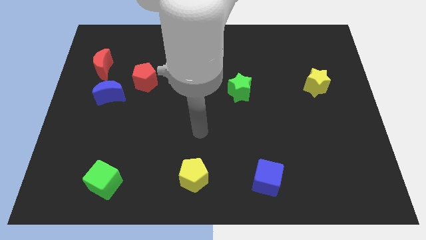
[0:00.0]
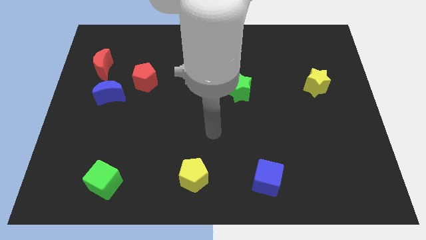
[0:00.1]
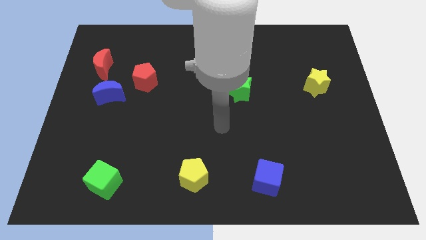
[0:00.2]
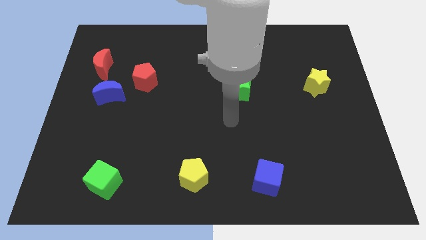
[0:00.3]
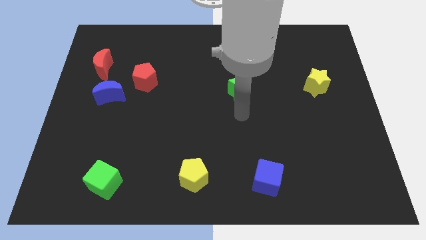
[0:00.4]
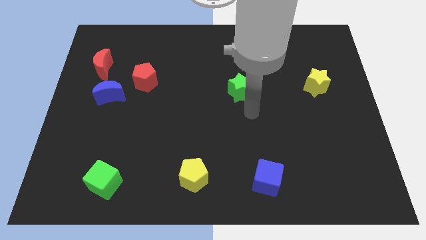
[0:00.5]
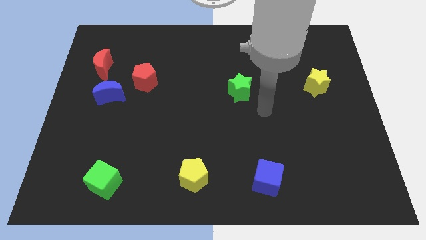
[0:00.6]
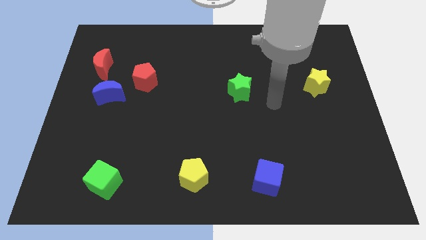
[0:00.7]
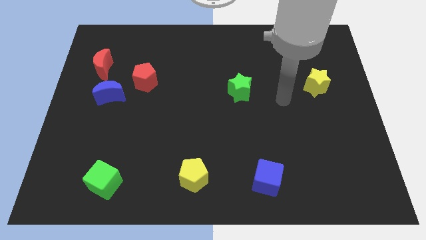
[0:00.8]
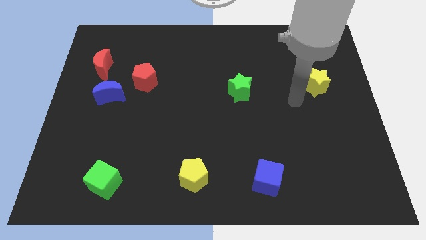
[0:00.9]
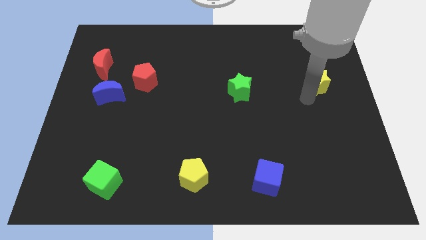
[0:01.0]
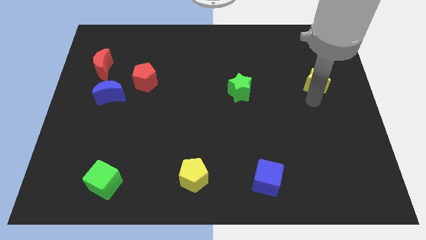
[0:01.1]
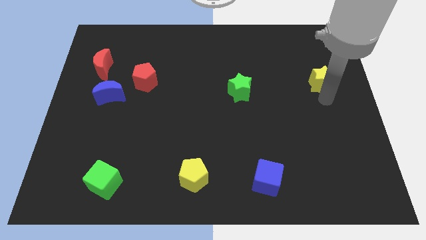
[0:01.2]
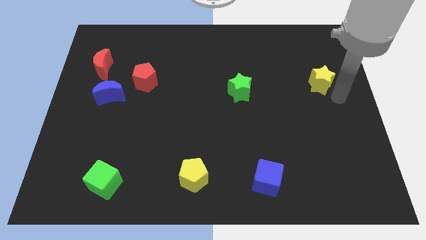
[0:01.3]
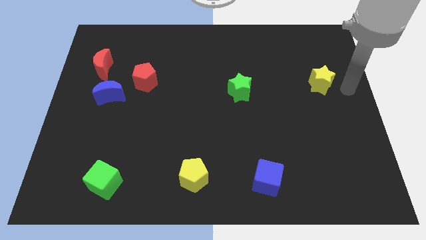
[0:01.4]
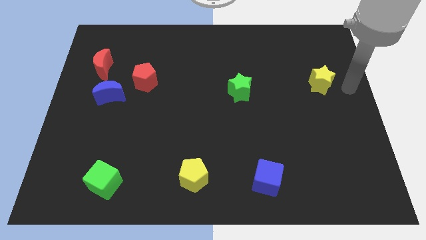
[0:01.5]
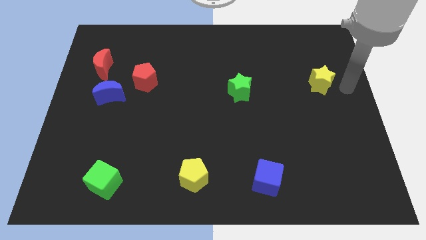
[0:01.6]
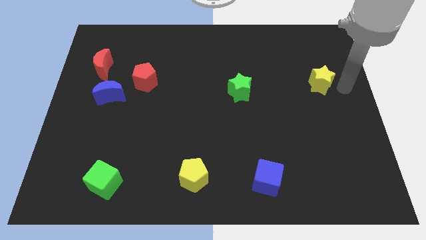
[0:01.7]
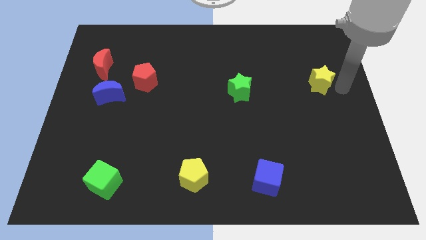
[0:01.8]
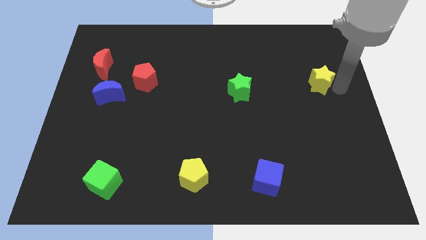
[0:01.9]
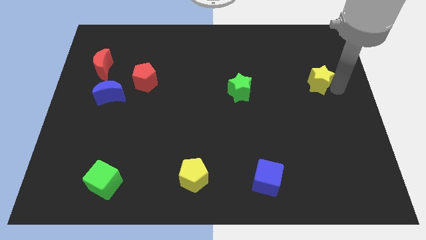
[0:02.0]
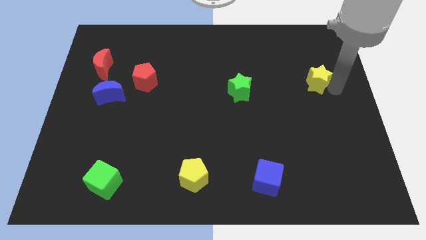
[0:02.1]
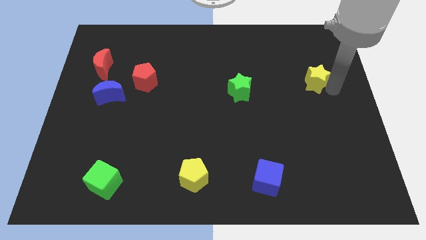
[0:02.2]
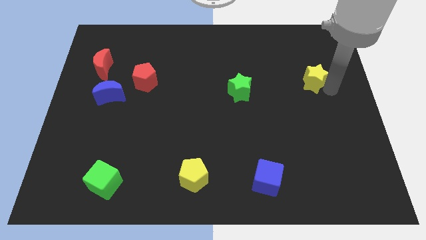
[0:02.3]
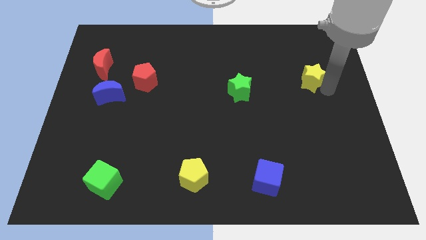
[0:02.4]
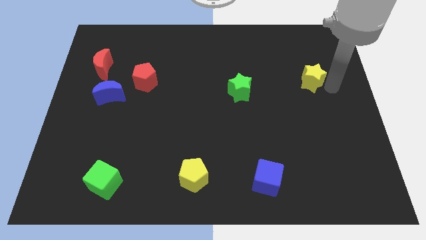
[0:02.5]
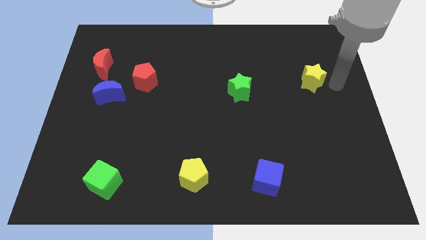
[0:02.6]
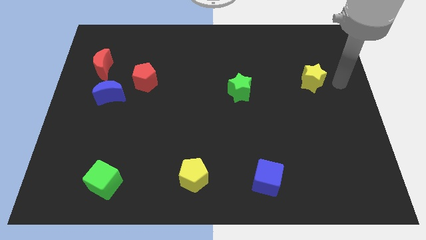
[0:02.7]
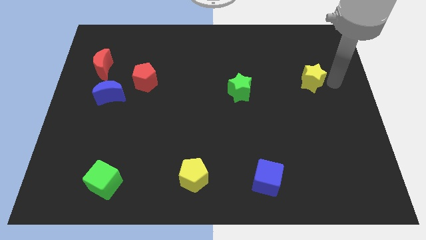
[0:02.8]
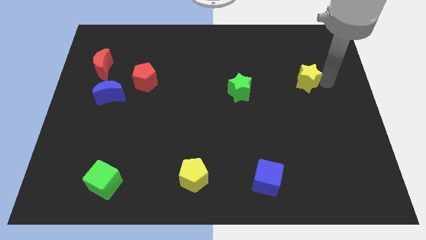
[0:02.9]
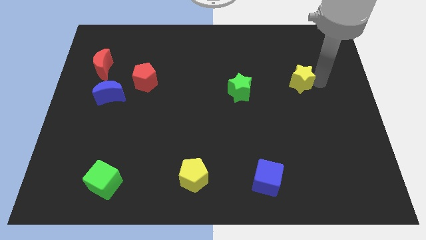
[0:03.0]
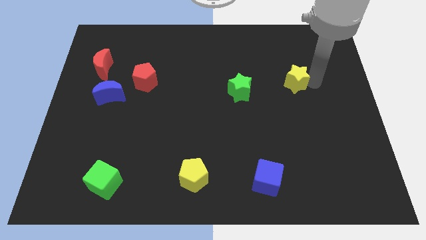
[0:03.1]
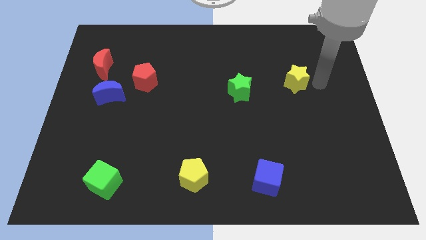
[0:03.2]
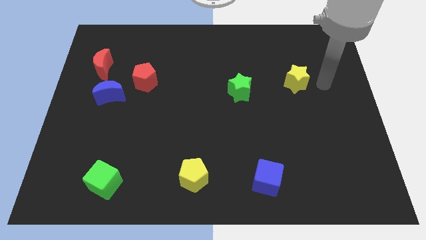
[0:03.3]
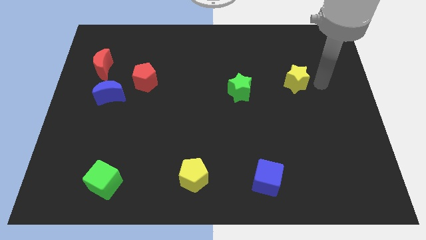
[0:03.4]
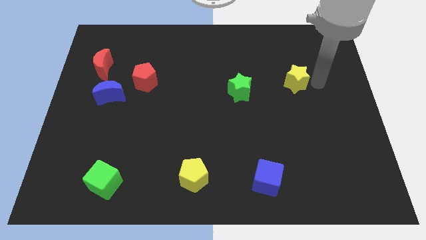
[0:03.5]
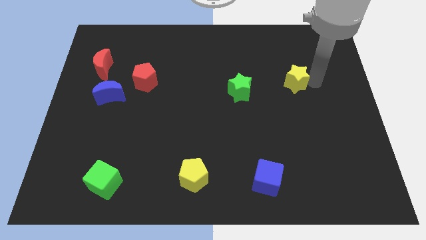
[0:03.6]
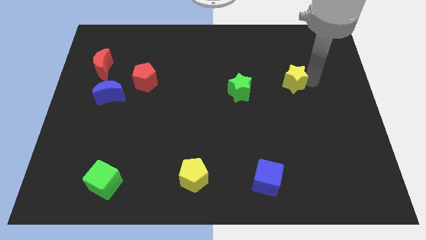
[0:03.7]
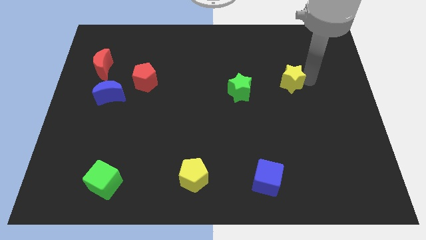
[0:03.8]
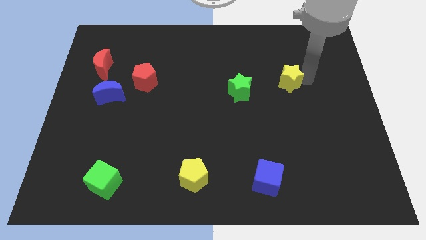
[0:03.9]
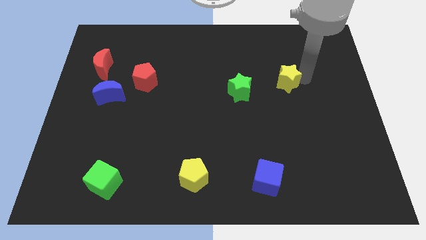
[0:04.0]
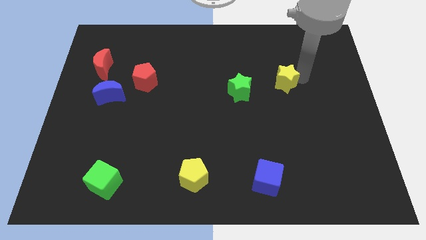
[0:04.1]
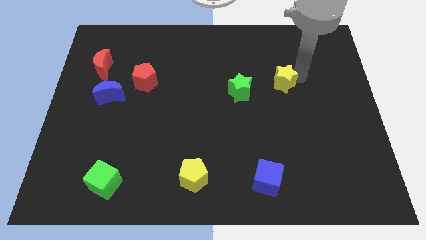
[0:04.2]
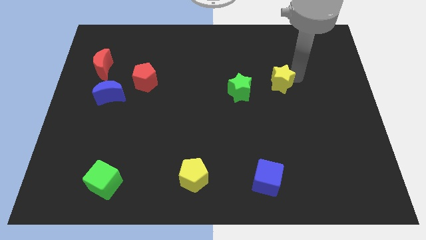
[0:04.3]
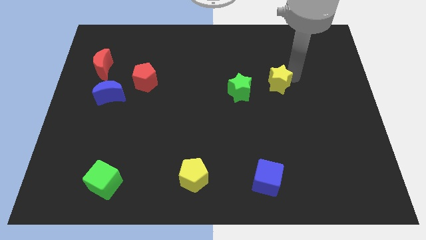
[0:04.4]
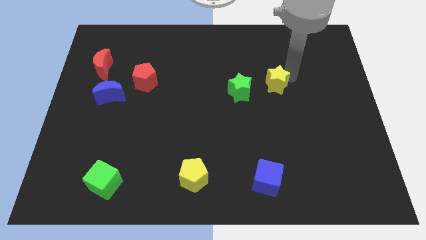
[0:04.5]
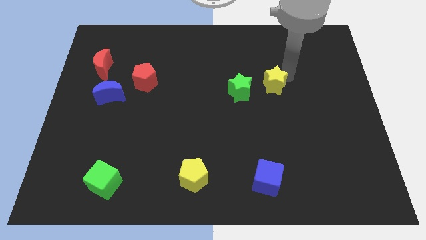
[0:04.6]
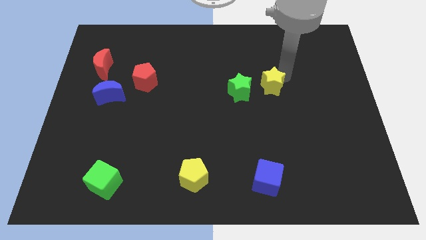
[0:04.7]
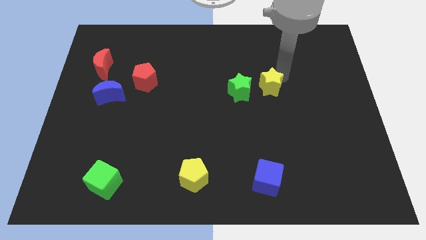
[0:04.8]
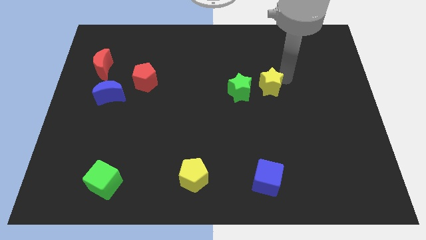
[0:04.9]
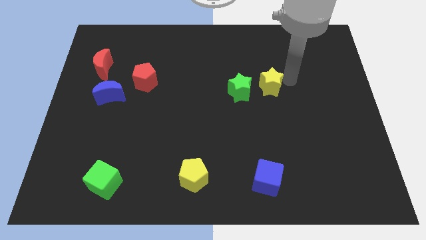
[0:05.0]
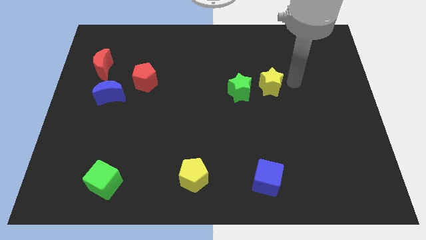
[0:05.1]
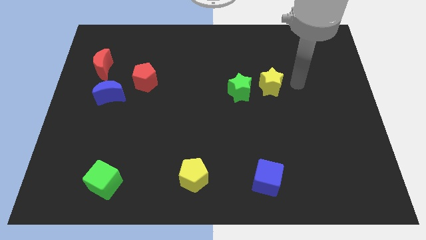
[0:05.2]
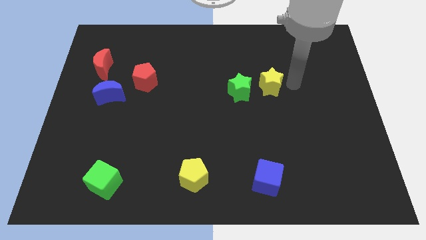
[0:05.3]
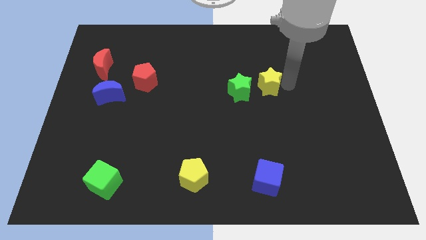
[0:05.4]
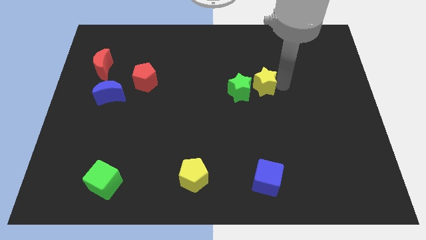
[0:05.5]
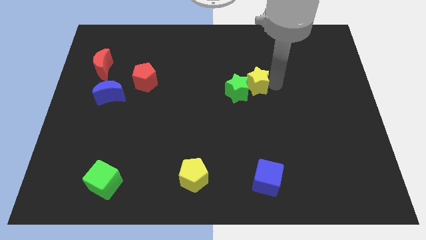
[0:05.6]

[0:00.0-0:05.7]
put the yellow star next to the green star

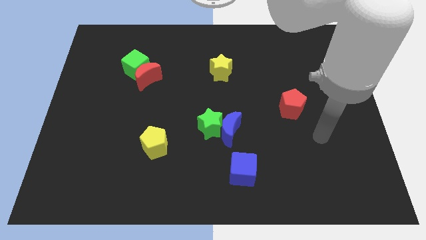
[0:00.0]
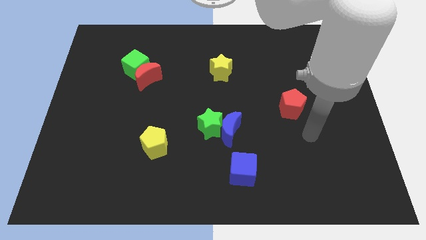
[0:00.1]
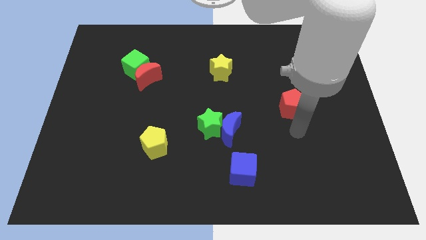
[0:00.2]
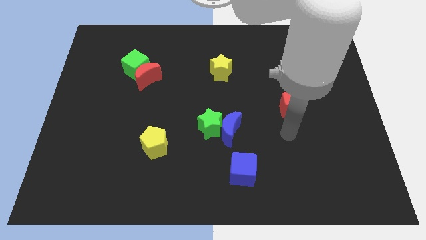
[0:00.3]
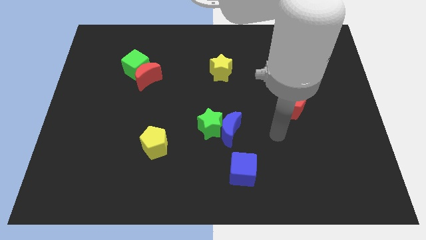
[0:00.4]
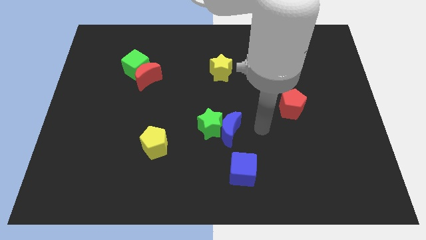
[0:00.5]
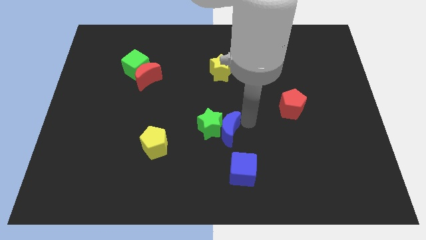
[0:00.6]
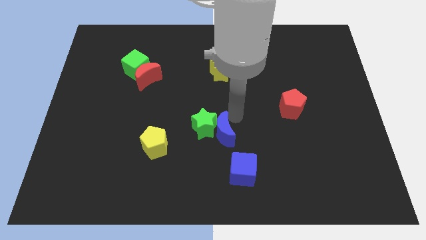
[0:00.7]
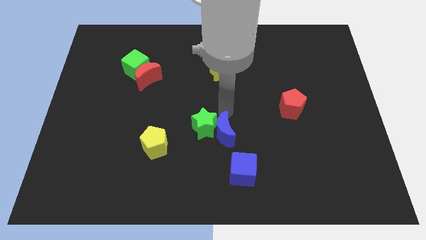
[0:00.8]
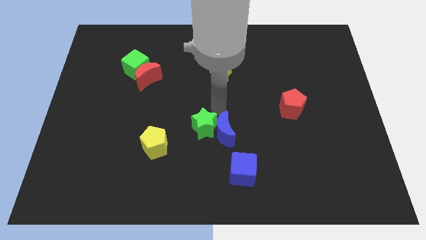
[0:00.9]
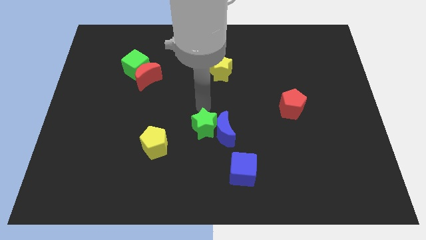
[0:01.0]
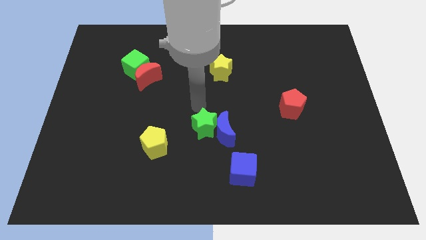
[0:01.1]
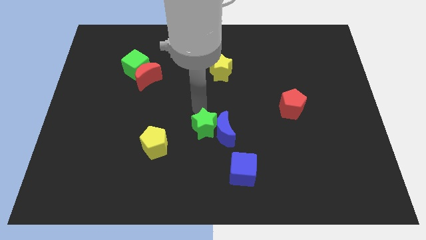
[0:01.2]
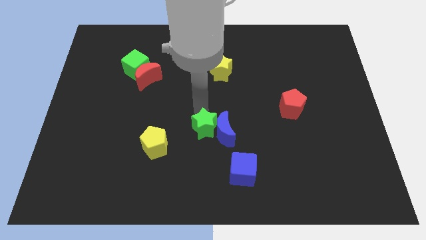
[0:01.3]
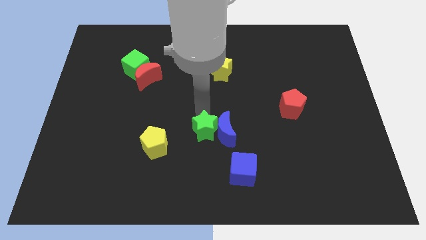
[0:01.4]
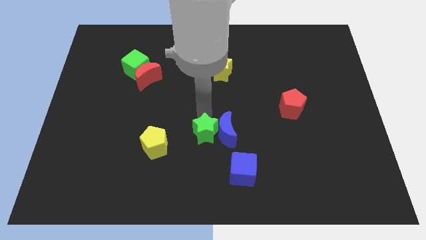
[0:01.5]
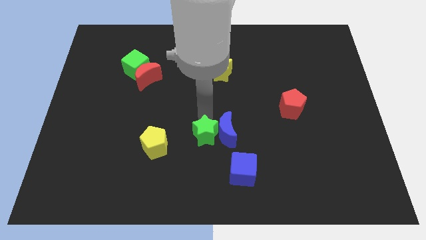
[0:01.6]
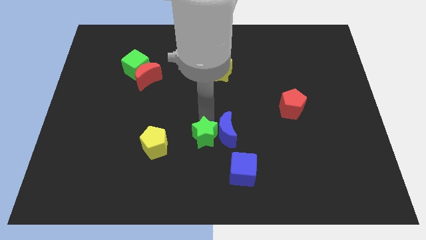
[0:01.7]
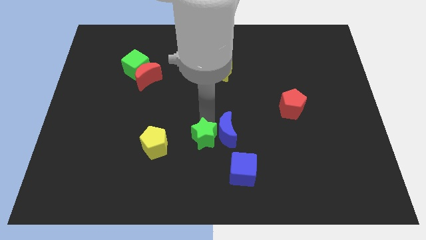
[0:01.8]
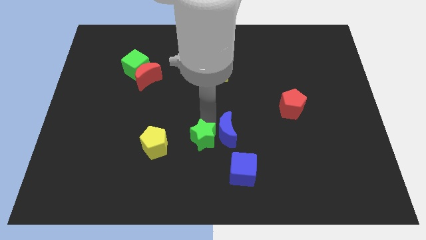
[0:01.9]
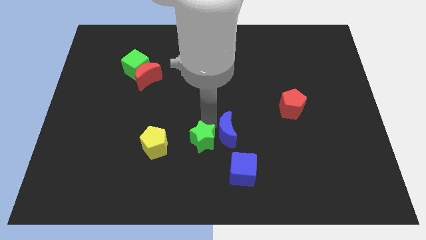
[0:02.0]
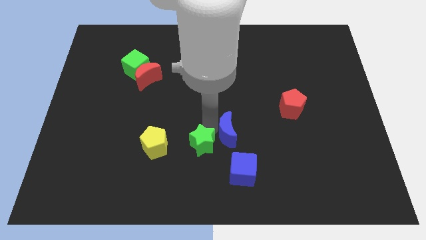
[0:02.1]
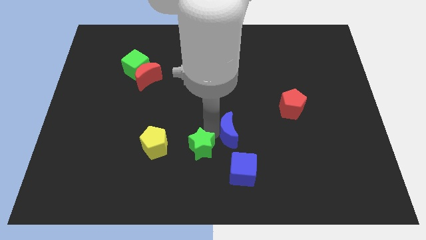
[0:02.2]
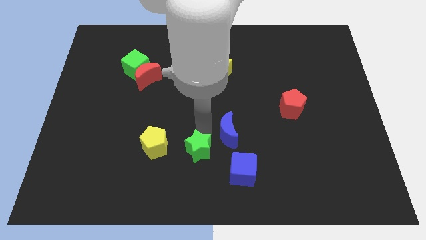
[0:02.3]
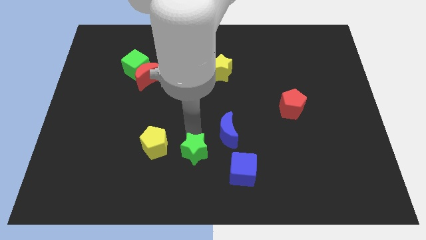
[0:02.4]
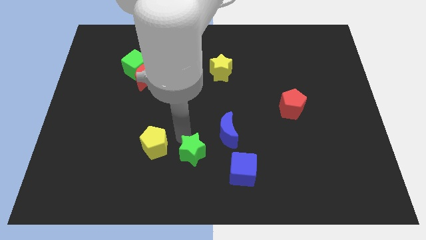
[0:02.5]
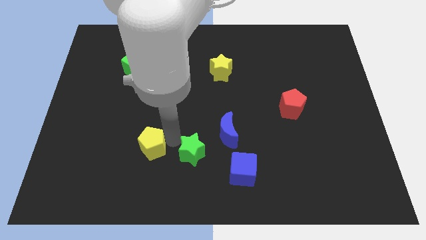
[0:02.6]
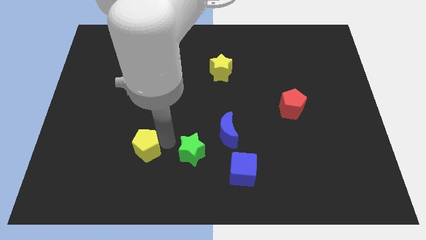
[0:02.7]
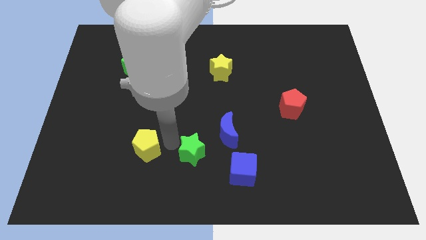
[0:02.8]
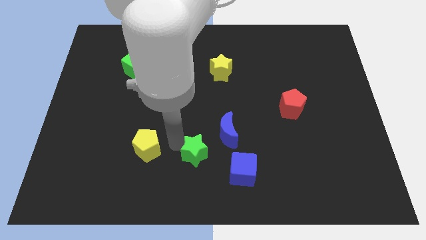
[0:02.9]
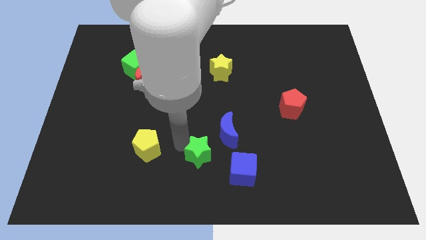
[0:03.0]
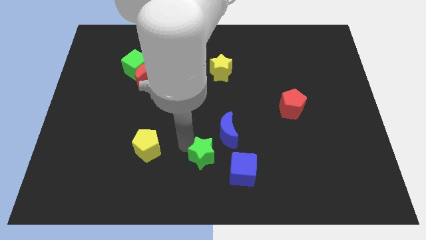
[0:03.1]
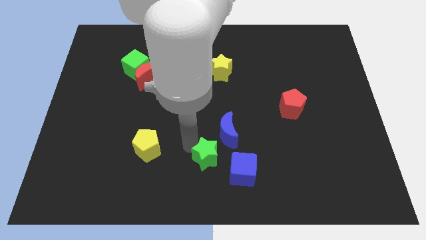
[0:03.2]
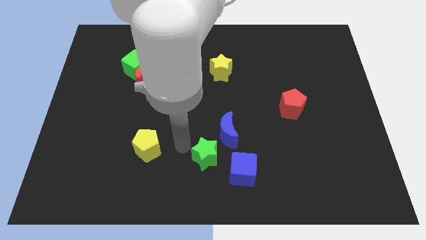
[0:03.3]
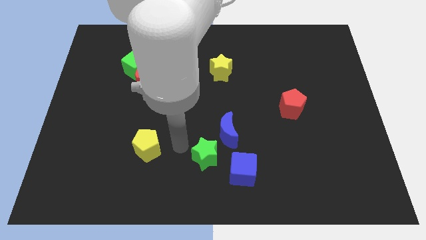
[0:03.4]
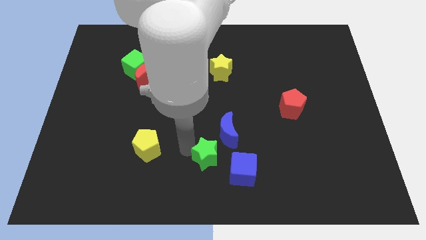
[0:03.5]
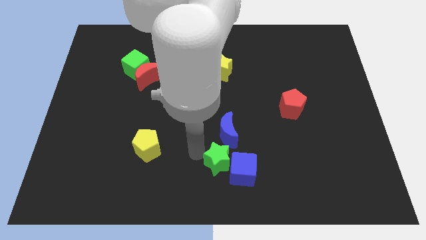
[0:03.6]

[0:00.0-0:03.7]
put the green star next to the blue cube
